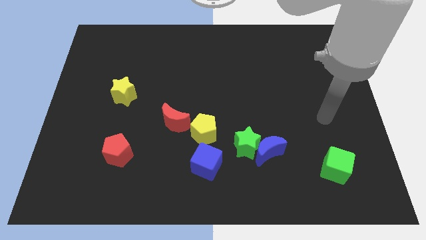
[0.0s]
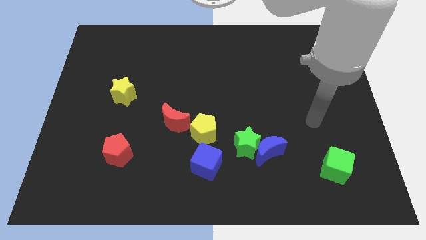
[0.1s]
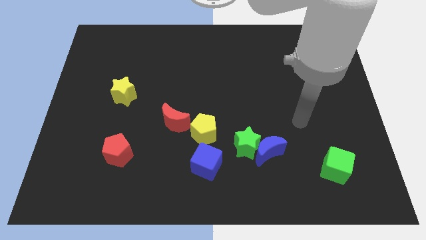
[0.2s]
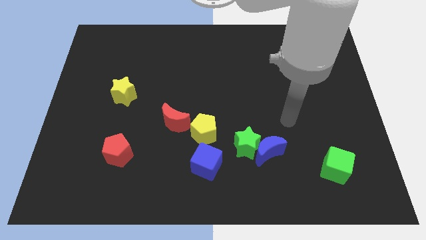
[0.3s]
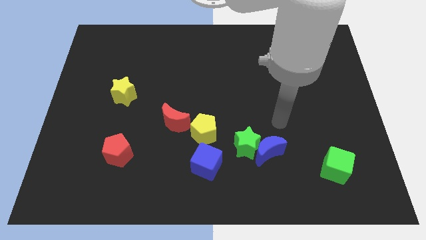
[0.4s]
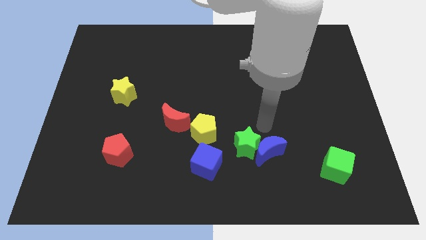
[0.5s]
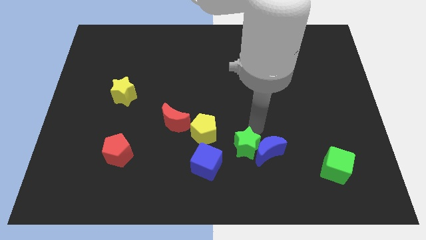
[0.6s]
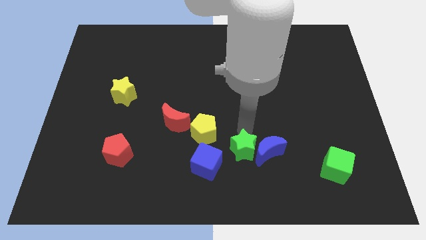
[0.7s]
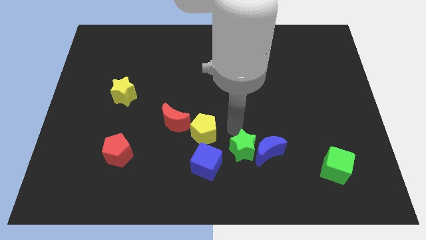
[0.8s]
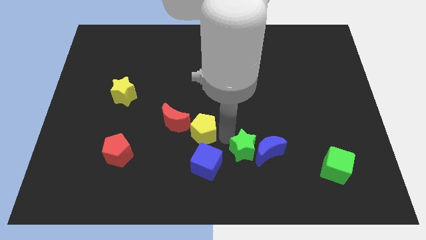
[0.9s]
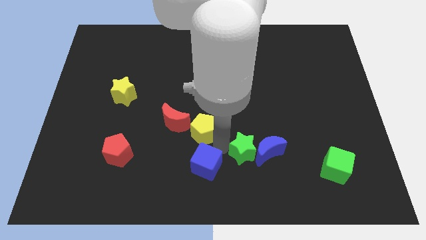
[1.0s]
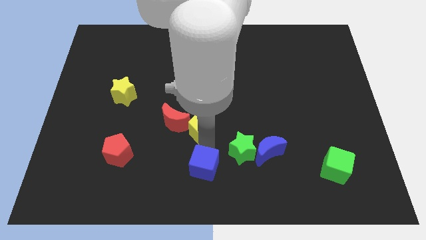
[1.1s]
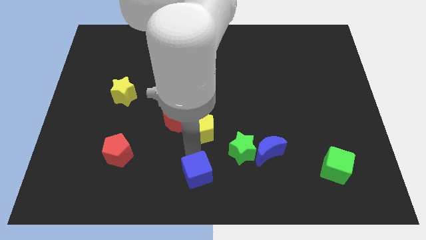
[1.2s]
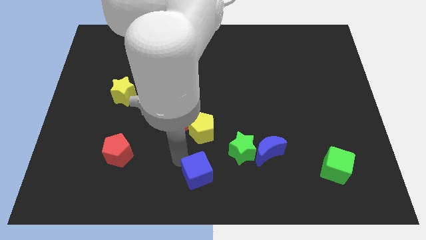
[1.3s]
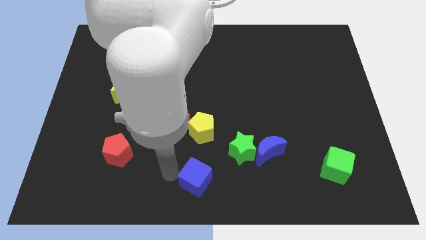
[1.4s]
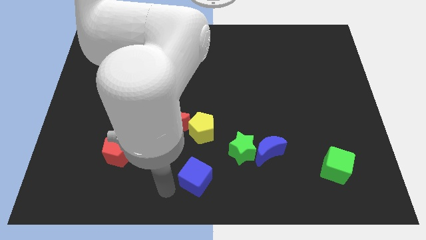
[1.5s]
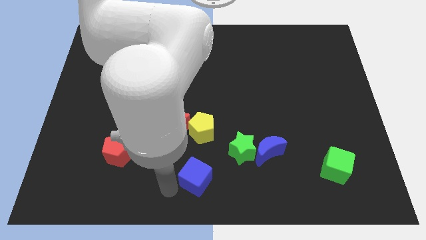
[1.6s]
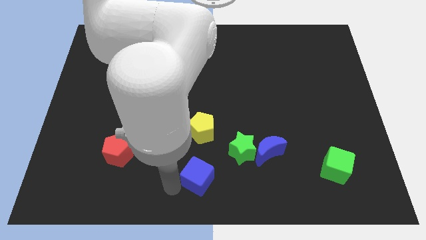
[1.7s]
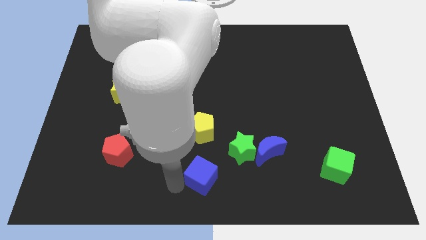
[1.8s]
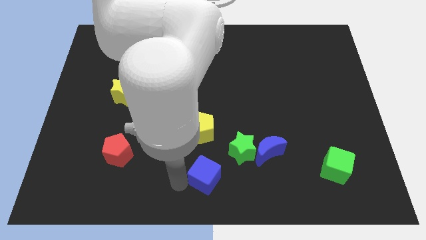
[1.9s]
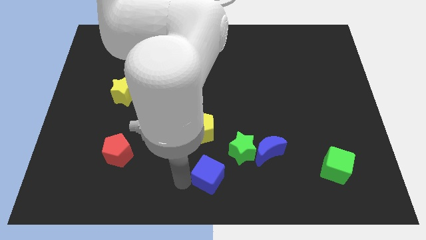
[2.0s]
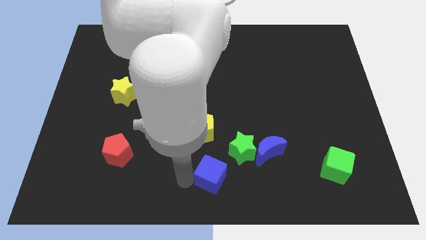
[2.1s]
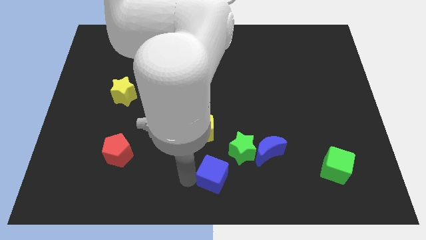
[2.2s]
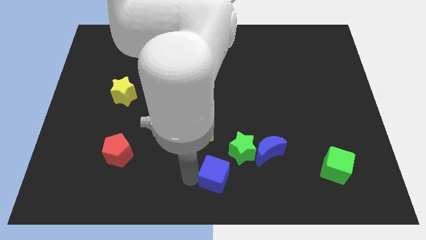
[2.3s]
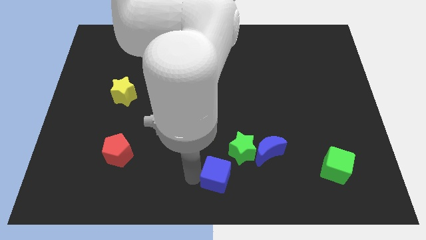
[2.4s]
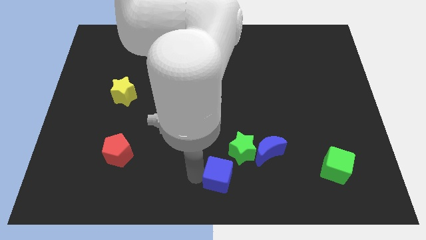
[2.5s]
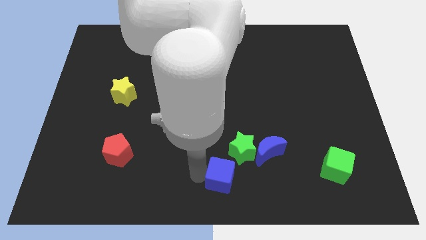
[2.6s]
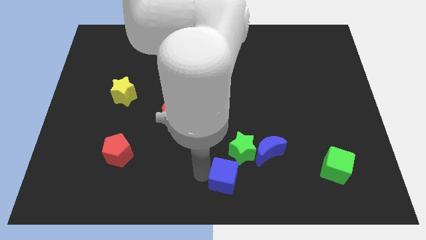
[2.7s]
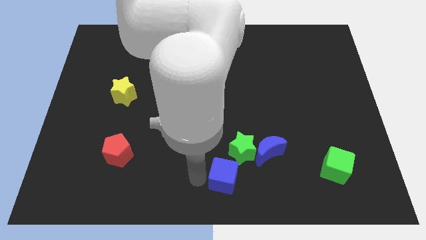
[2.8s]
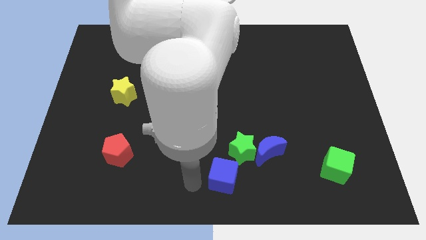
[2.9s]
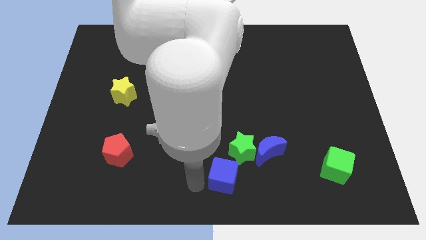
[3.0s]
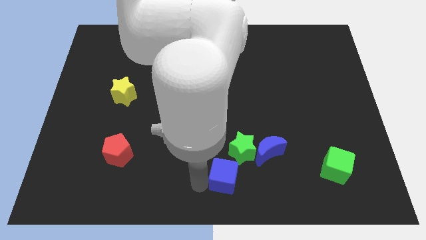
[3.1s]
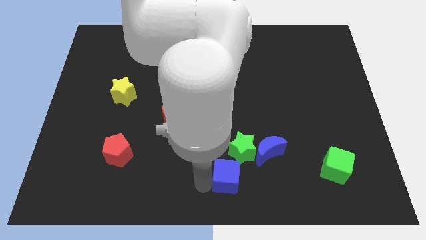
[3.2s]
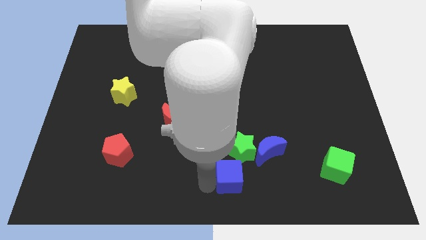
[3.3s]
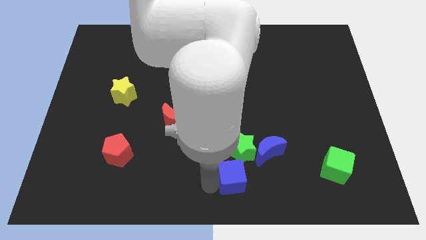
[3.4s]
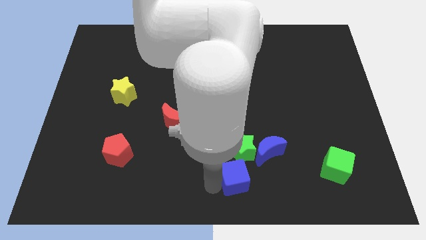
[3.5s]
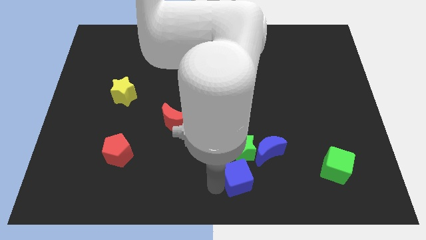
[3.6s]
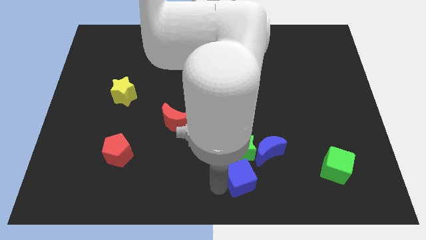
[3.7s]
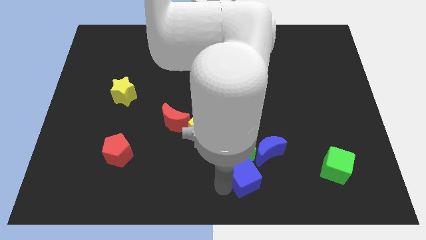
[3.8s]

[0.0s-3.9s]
slide the blue cube to the right a little bit

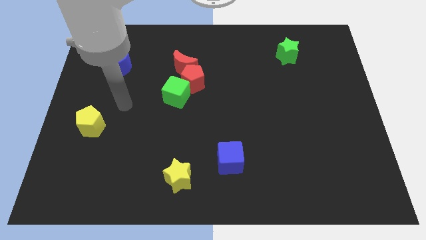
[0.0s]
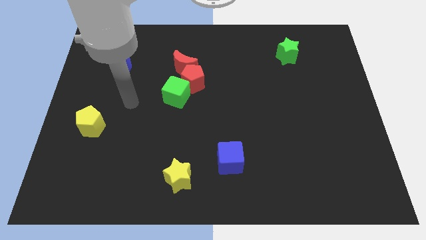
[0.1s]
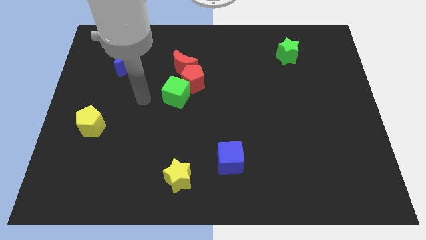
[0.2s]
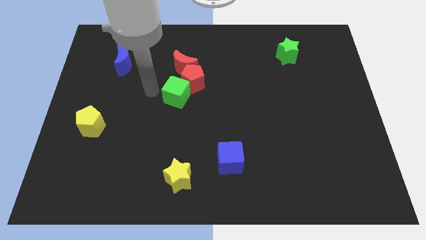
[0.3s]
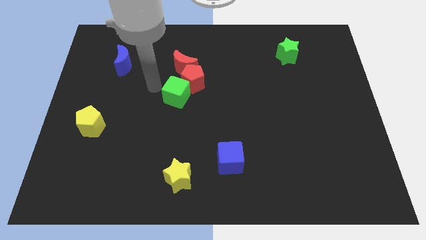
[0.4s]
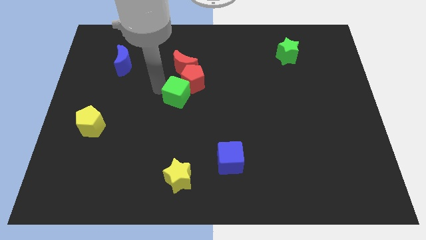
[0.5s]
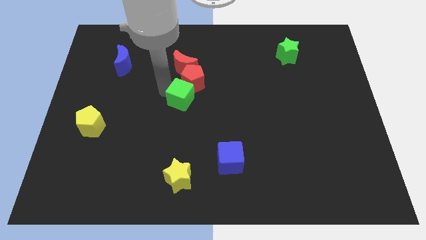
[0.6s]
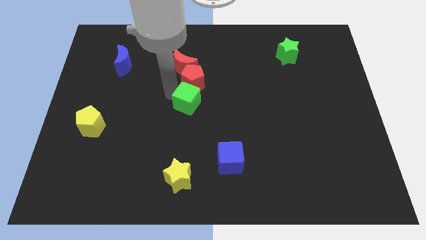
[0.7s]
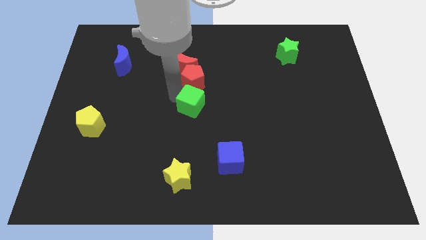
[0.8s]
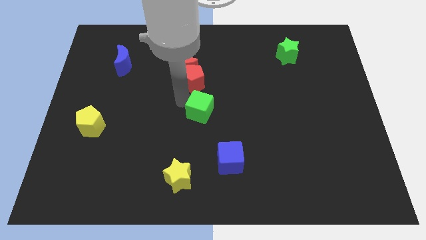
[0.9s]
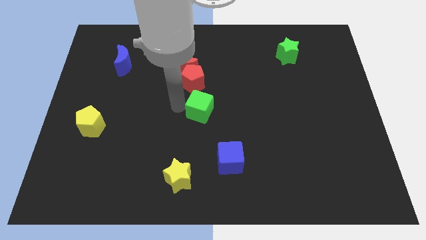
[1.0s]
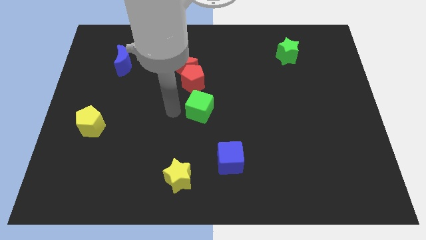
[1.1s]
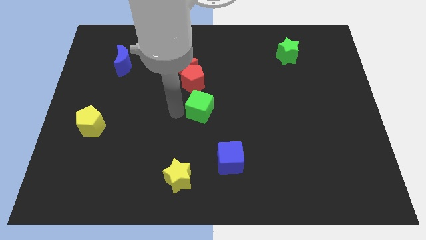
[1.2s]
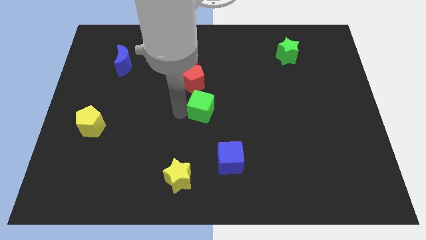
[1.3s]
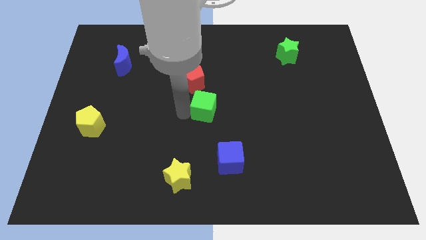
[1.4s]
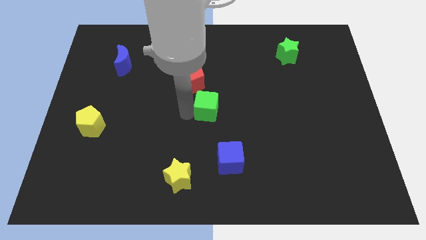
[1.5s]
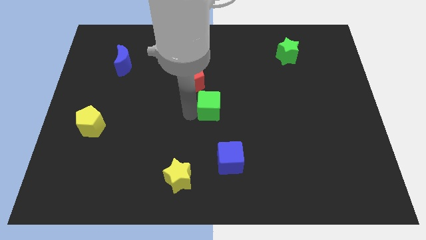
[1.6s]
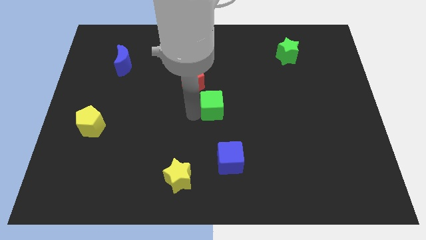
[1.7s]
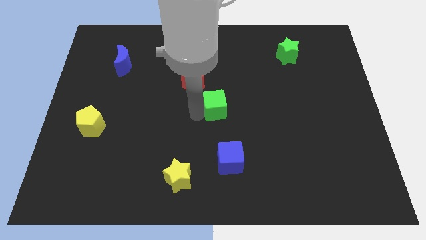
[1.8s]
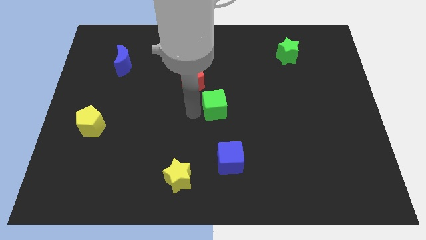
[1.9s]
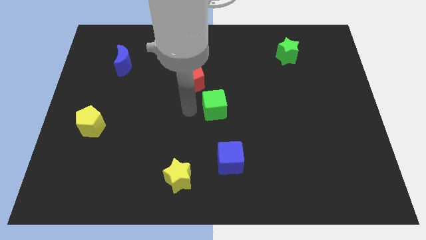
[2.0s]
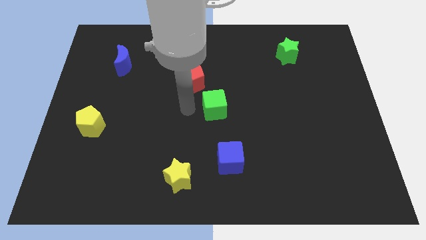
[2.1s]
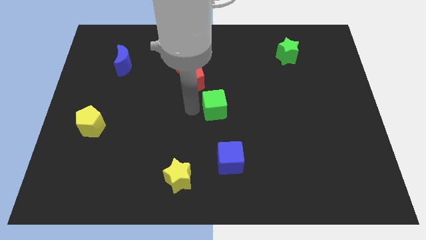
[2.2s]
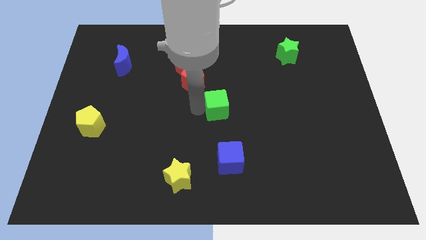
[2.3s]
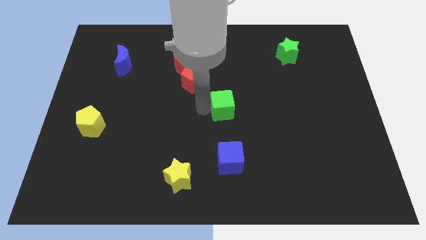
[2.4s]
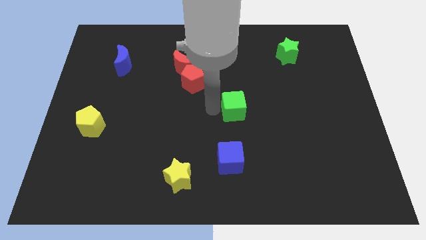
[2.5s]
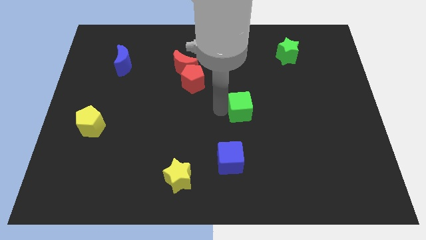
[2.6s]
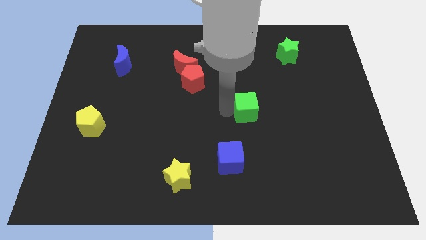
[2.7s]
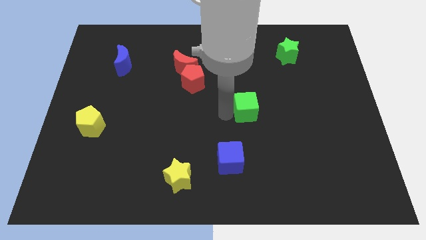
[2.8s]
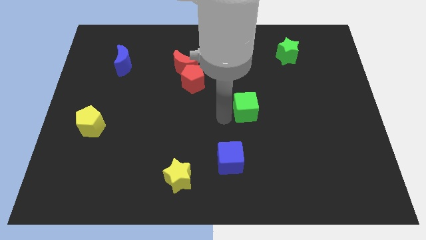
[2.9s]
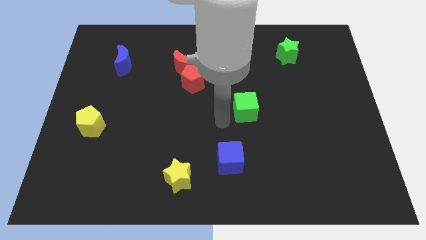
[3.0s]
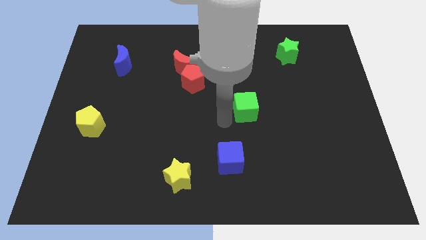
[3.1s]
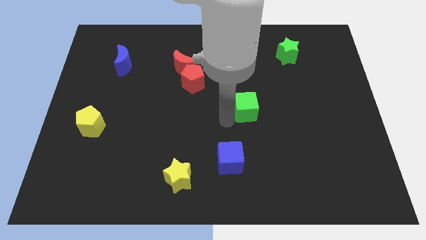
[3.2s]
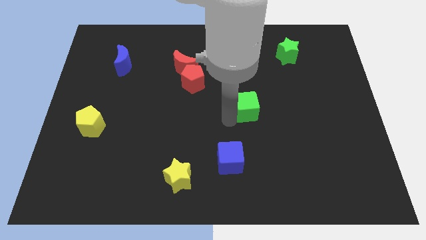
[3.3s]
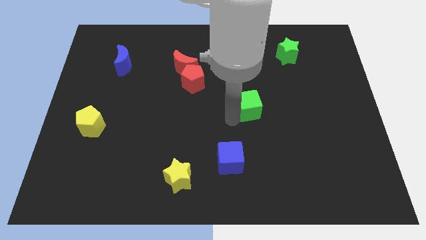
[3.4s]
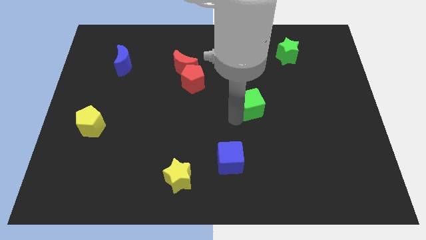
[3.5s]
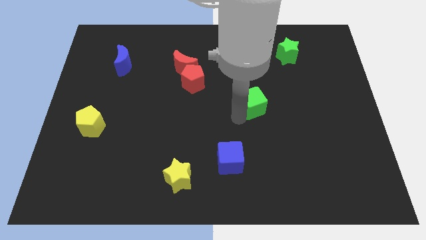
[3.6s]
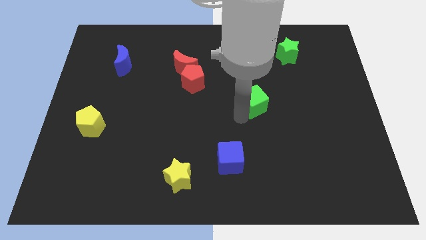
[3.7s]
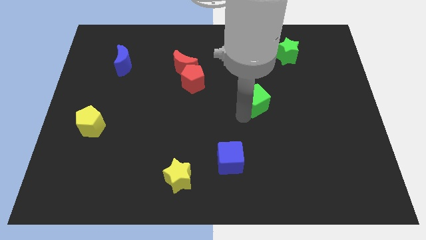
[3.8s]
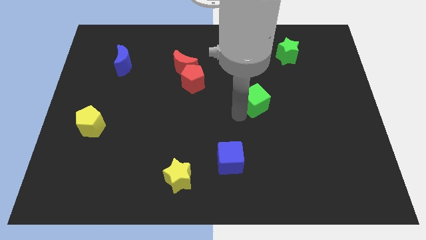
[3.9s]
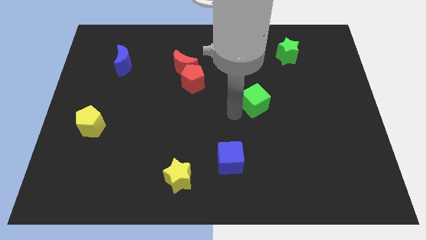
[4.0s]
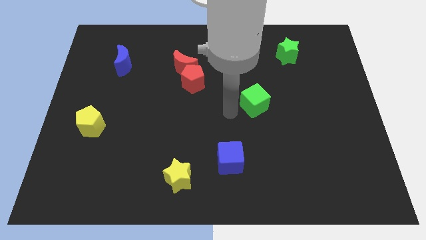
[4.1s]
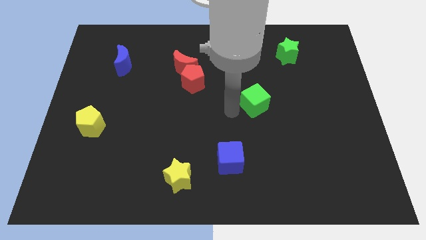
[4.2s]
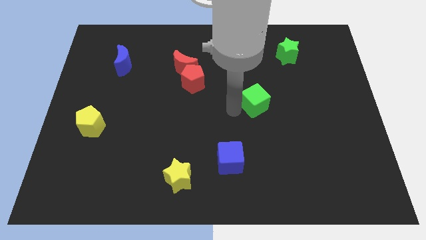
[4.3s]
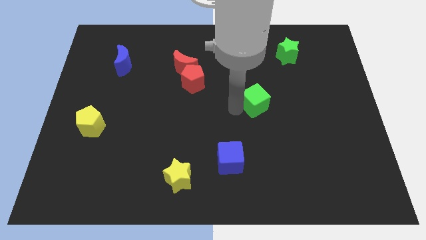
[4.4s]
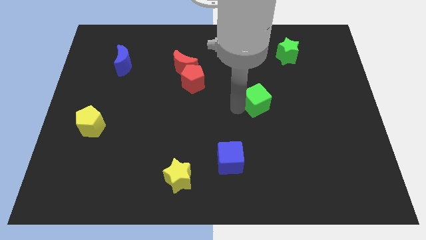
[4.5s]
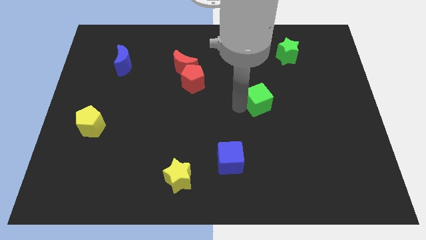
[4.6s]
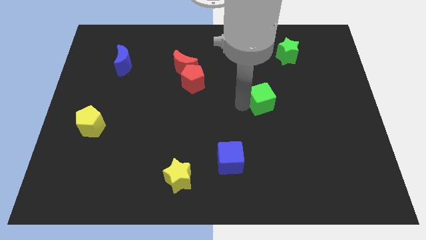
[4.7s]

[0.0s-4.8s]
slide the green cube right
